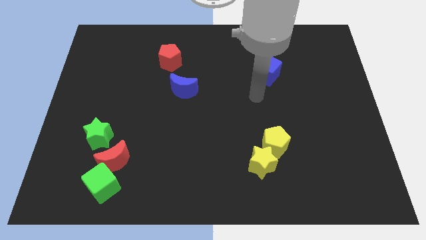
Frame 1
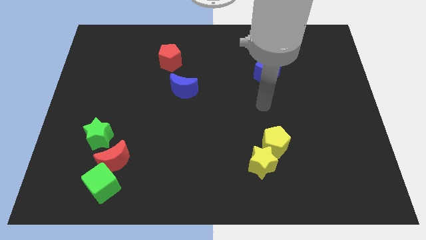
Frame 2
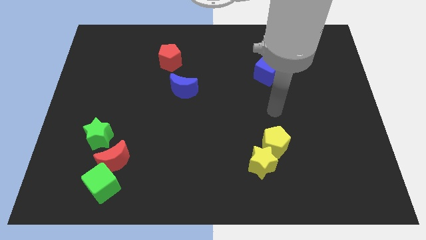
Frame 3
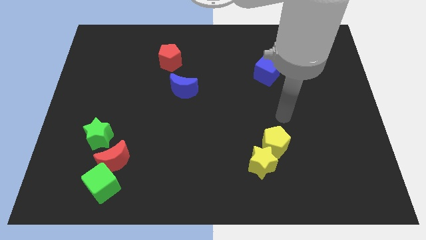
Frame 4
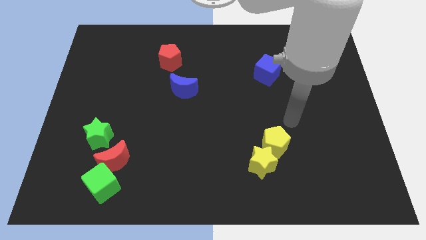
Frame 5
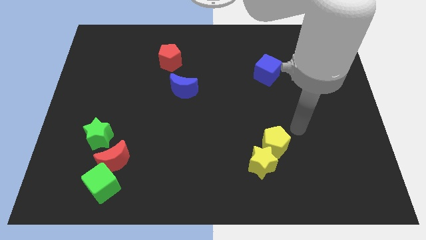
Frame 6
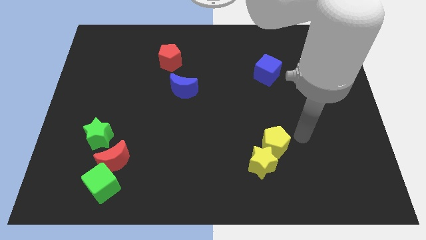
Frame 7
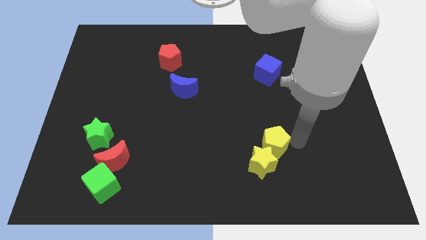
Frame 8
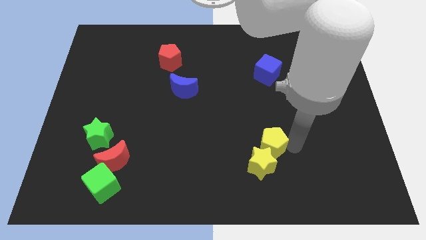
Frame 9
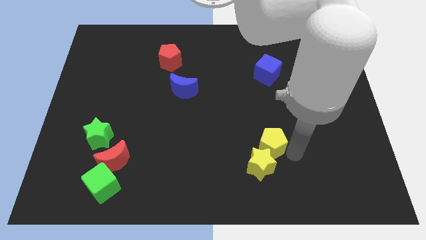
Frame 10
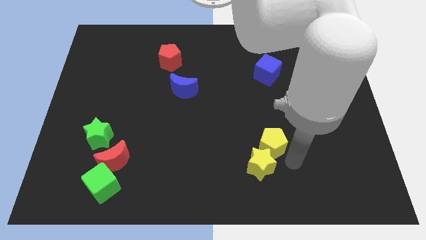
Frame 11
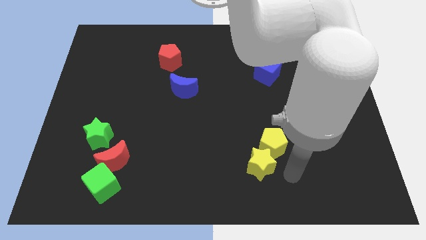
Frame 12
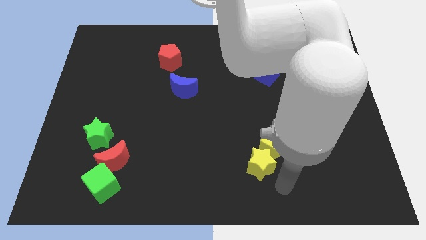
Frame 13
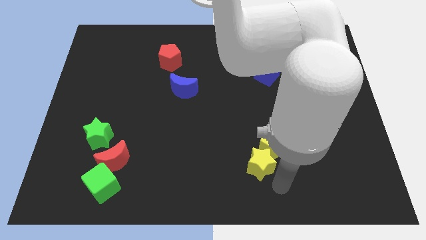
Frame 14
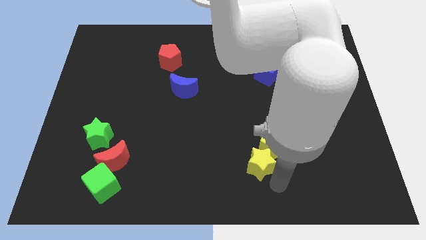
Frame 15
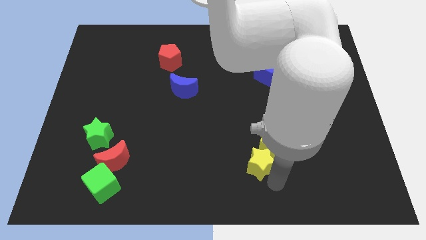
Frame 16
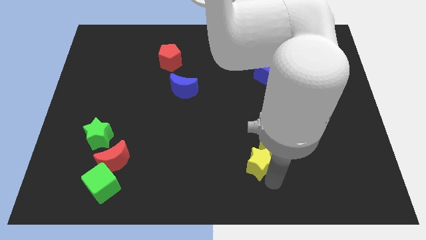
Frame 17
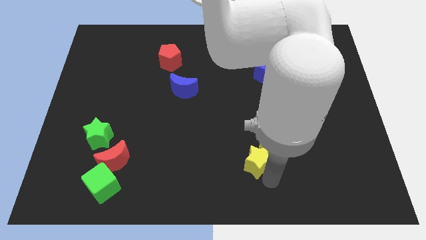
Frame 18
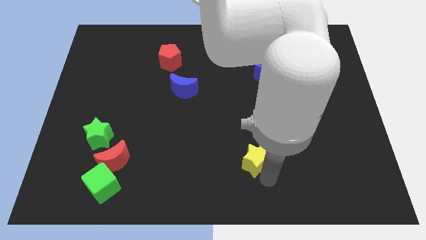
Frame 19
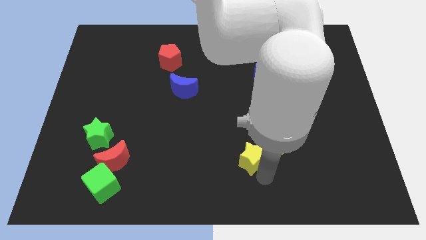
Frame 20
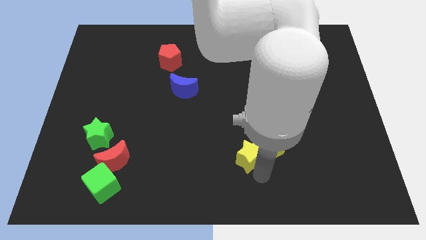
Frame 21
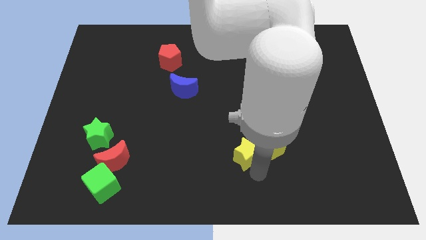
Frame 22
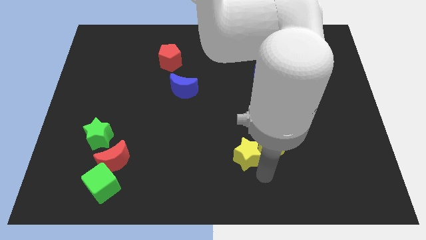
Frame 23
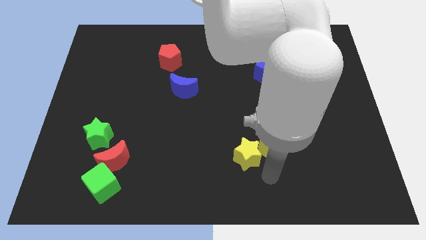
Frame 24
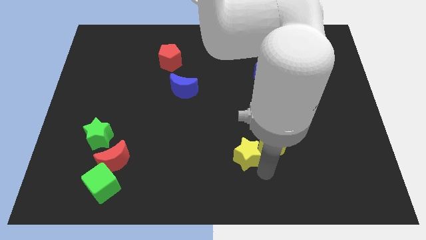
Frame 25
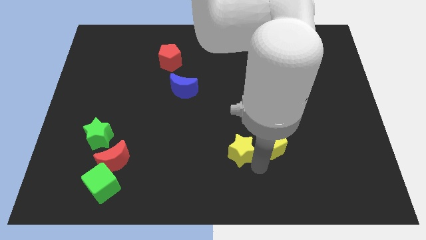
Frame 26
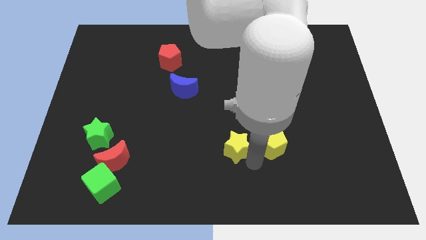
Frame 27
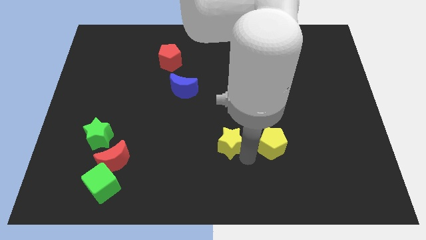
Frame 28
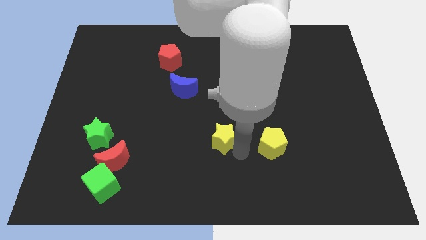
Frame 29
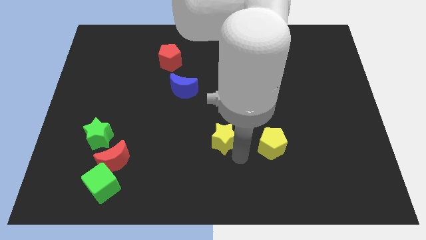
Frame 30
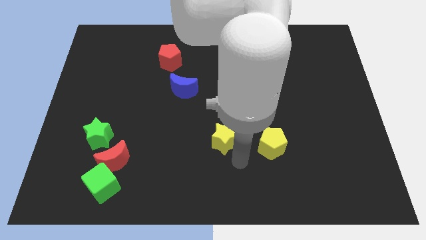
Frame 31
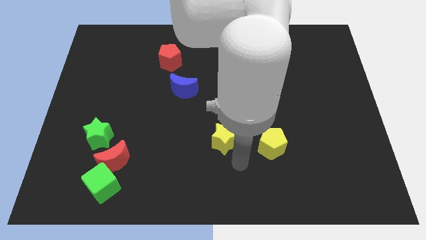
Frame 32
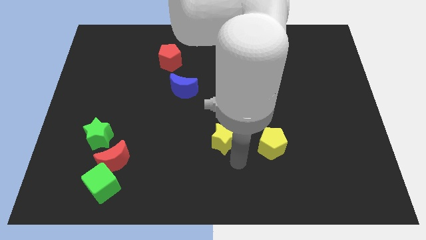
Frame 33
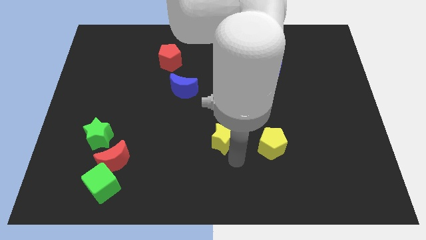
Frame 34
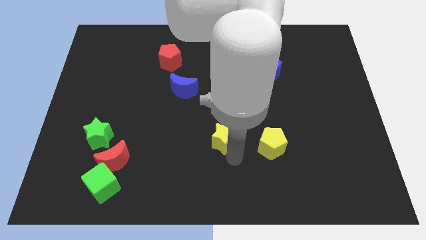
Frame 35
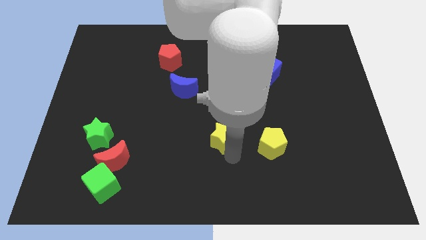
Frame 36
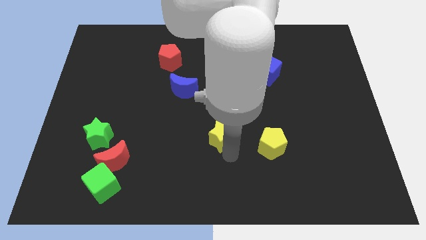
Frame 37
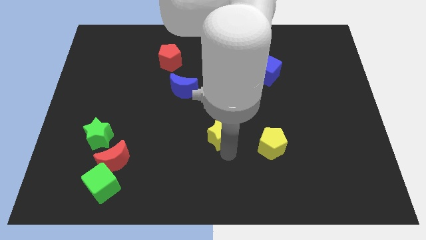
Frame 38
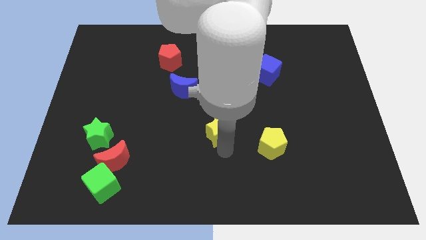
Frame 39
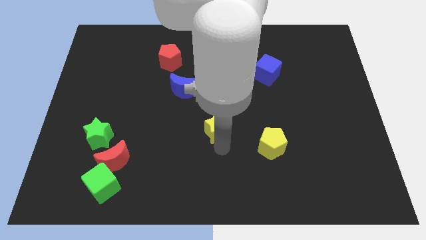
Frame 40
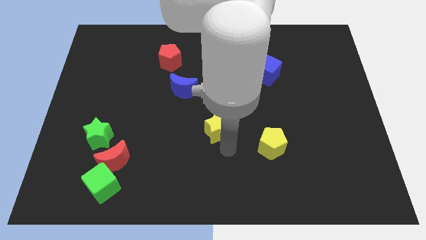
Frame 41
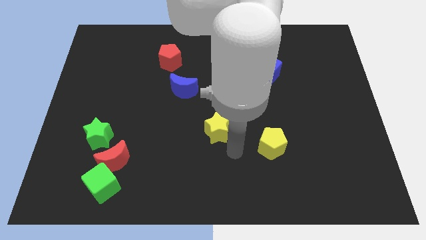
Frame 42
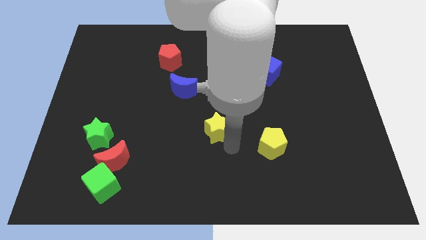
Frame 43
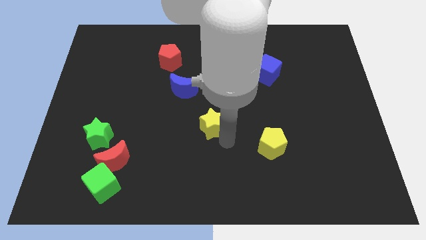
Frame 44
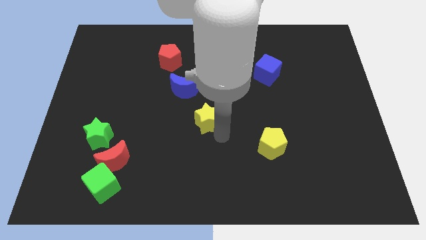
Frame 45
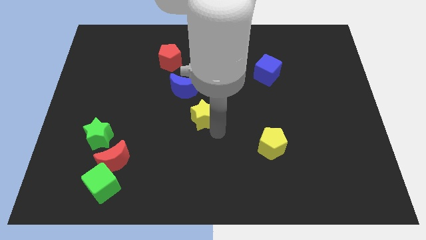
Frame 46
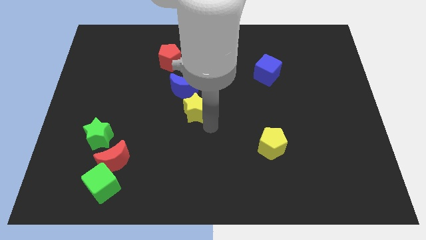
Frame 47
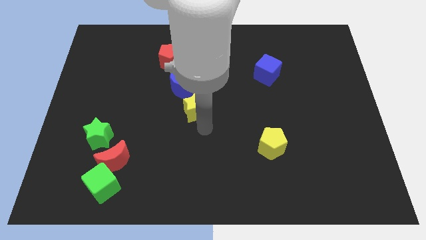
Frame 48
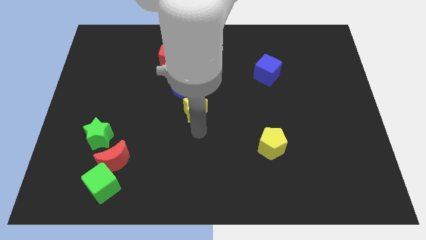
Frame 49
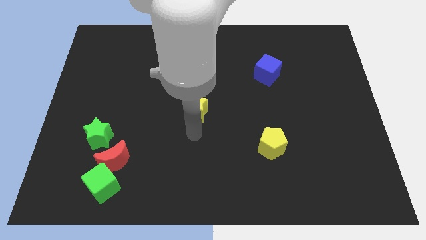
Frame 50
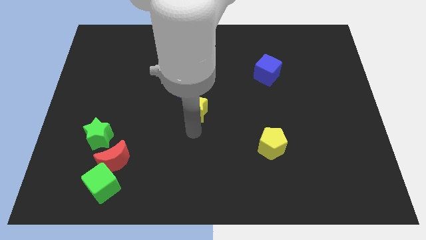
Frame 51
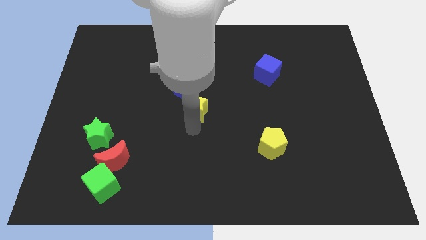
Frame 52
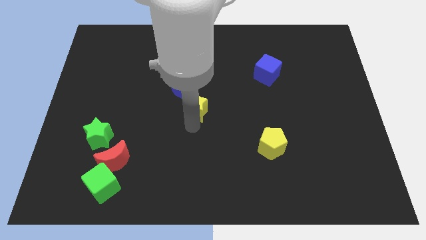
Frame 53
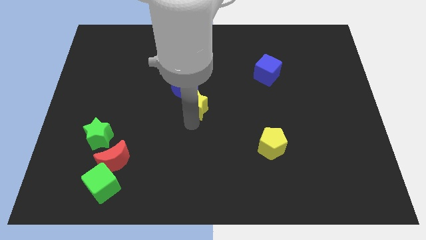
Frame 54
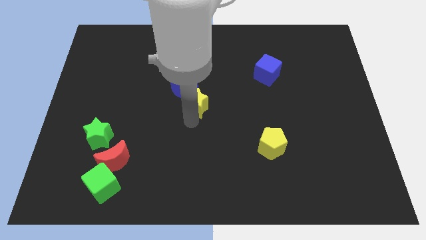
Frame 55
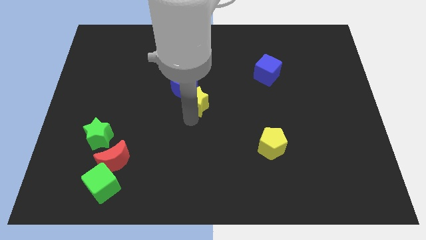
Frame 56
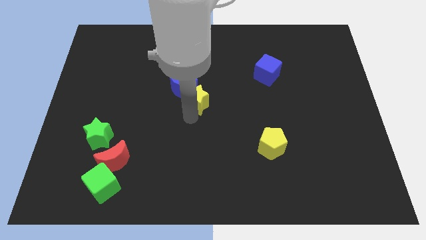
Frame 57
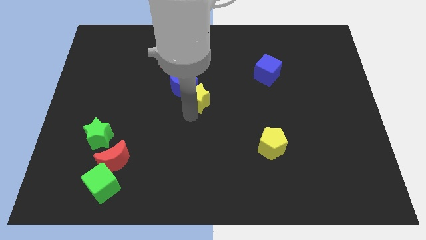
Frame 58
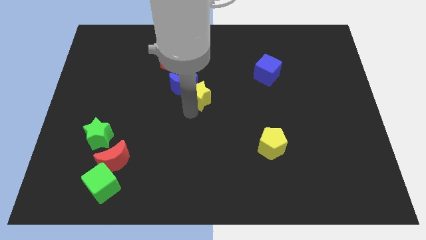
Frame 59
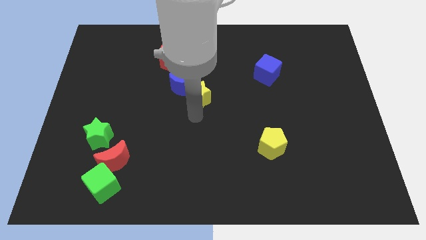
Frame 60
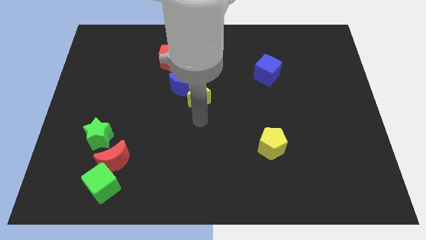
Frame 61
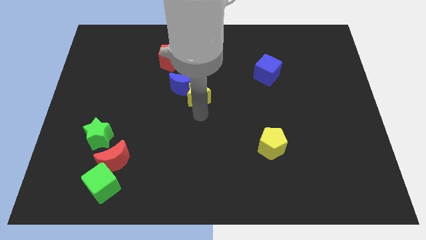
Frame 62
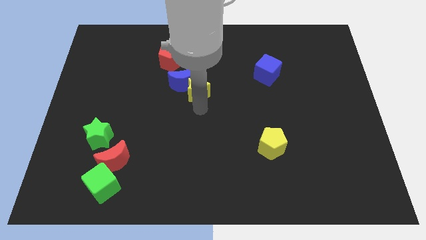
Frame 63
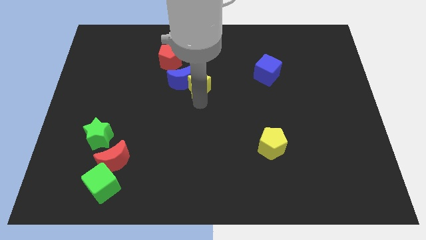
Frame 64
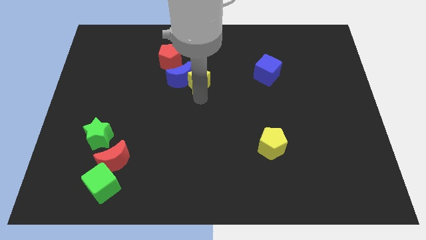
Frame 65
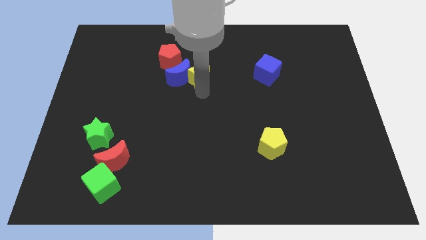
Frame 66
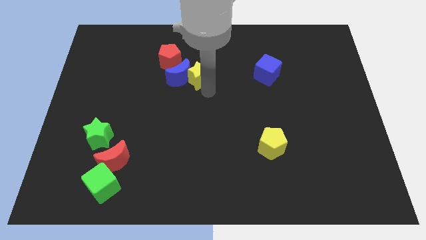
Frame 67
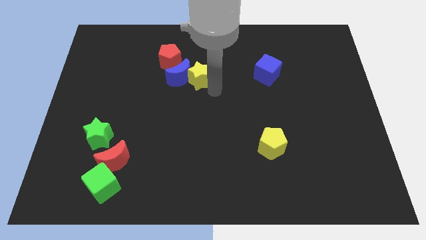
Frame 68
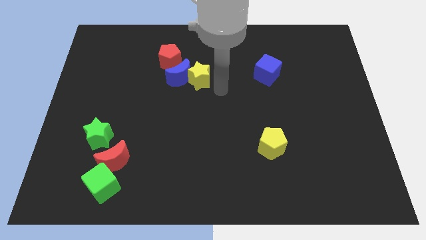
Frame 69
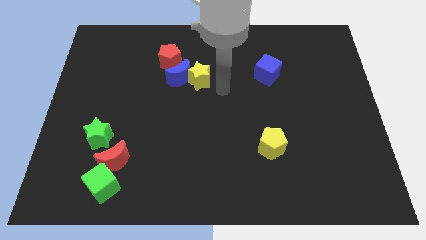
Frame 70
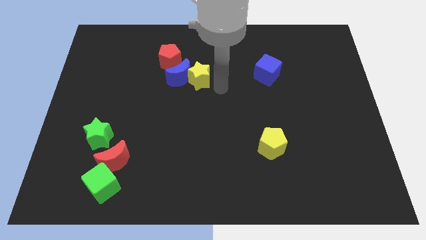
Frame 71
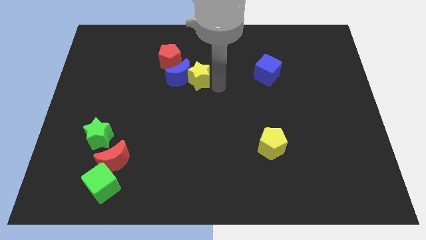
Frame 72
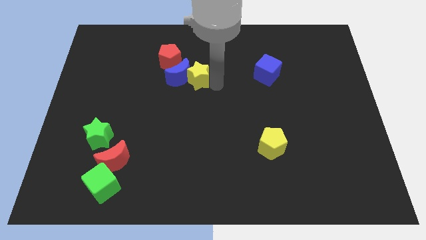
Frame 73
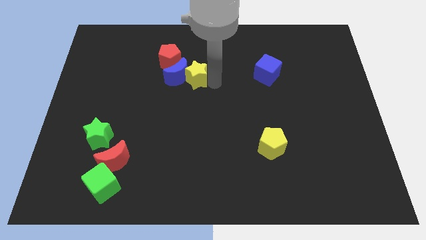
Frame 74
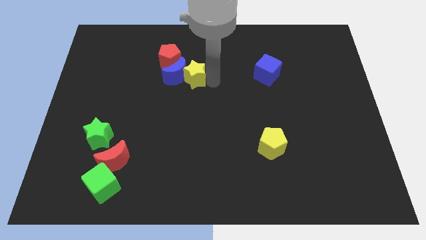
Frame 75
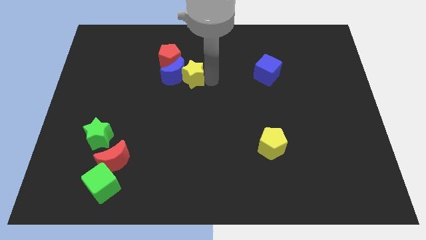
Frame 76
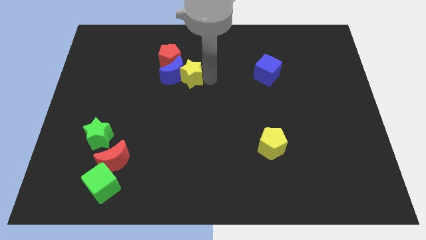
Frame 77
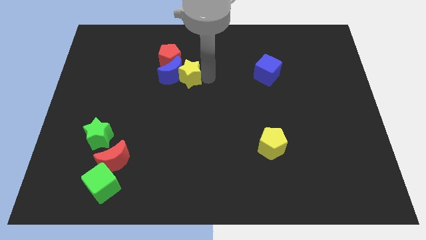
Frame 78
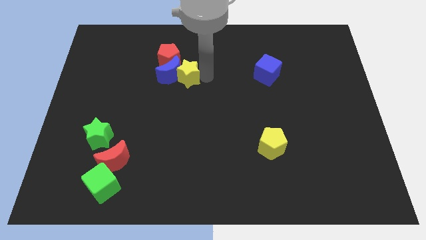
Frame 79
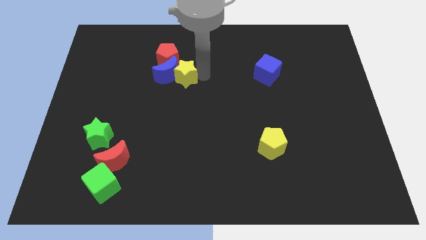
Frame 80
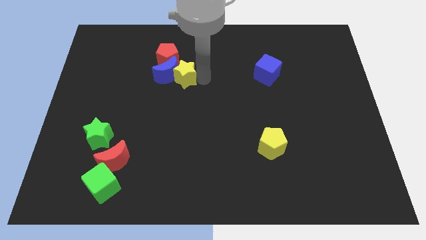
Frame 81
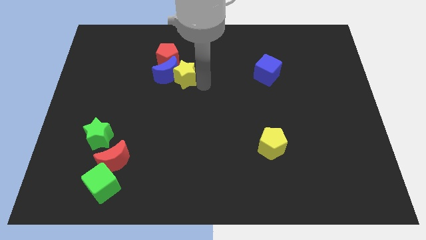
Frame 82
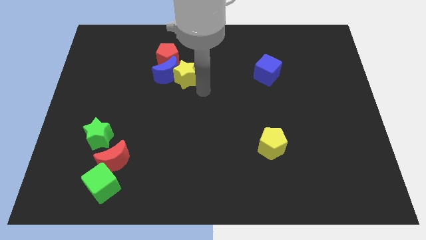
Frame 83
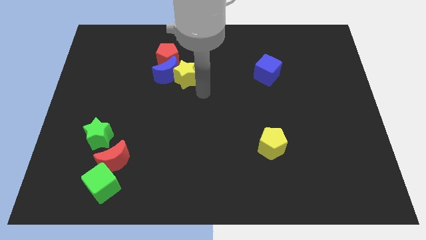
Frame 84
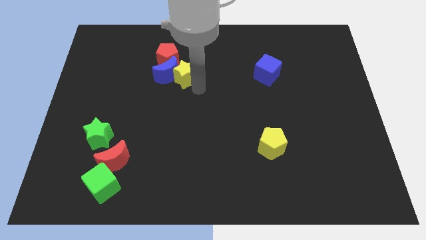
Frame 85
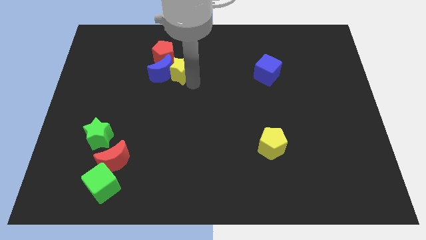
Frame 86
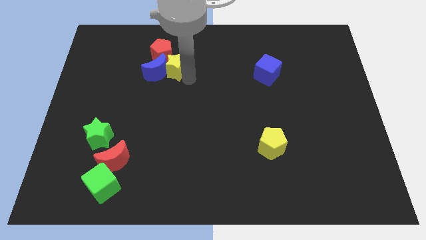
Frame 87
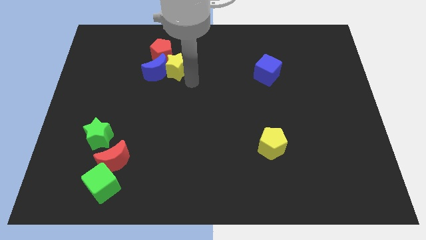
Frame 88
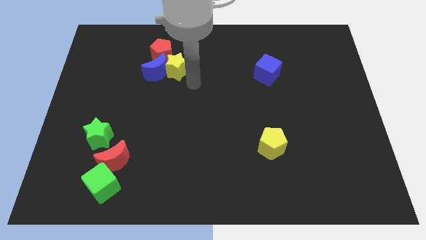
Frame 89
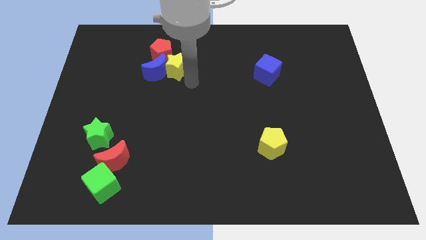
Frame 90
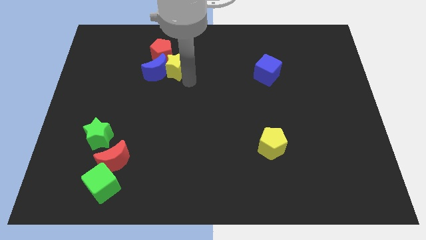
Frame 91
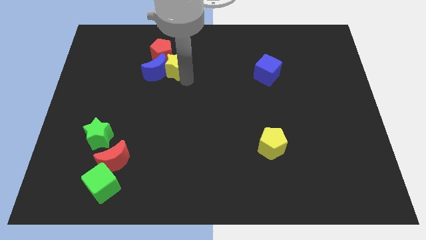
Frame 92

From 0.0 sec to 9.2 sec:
slide the yellow star to the red pentagon
